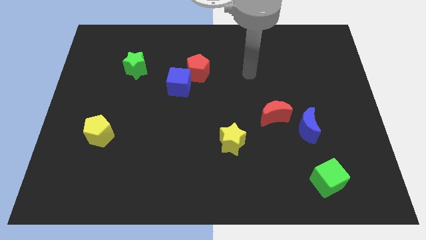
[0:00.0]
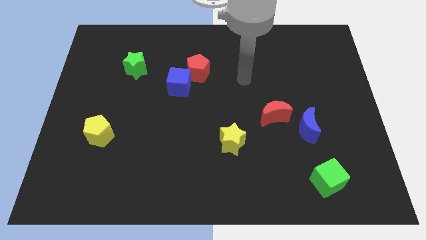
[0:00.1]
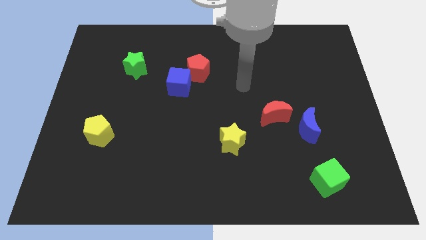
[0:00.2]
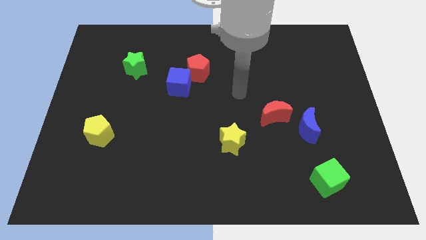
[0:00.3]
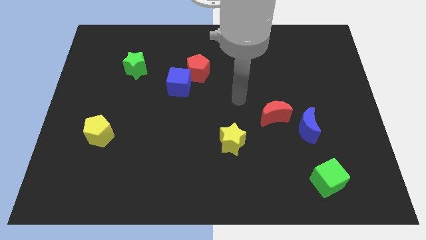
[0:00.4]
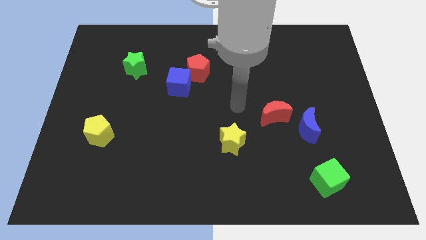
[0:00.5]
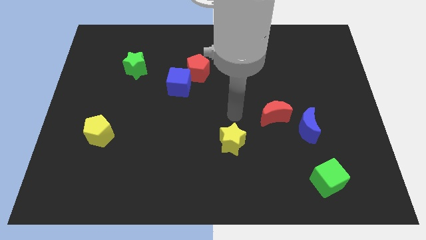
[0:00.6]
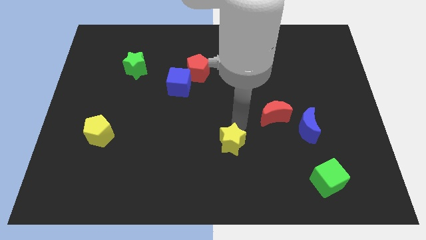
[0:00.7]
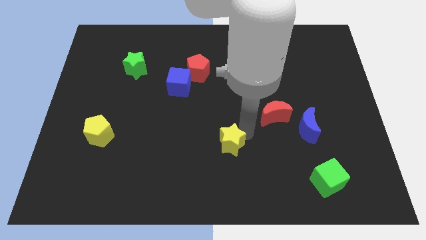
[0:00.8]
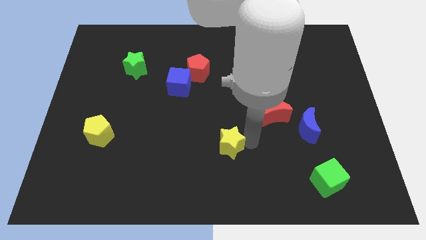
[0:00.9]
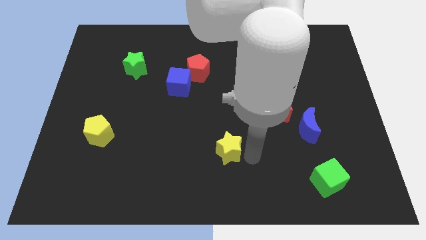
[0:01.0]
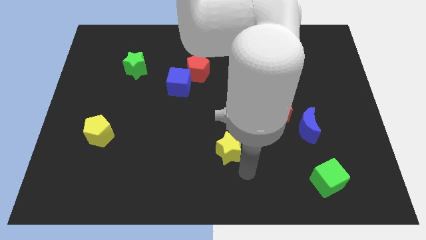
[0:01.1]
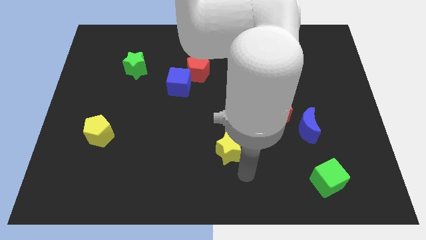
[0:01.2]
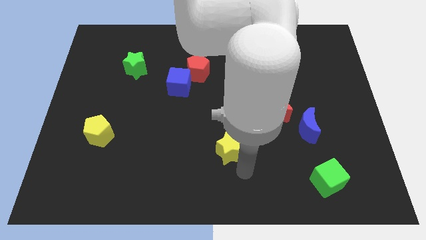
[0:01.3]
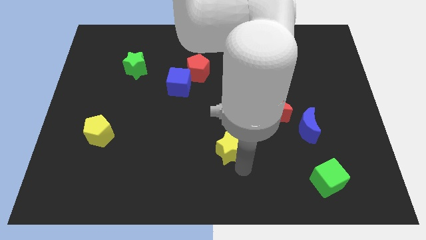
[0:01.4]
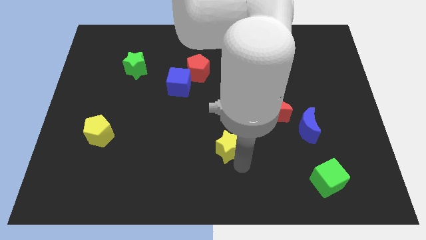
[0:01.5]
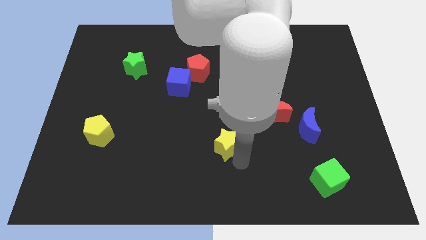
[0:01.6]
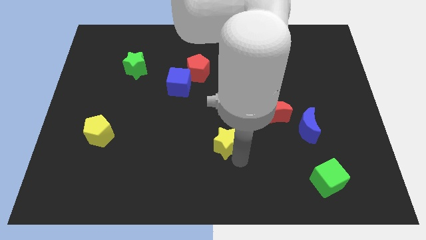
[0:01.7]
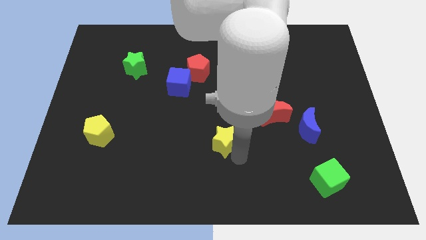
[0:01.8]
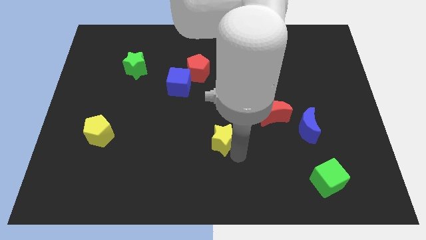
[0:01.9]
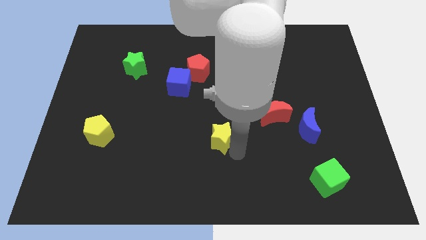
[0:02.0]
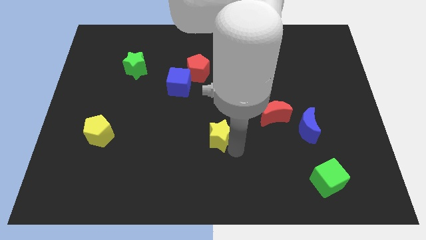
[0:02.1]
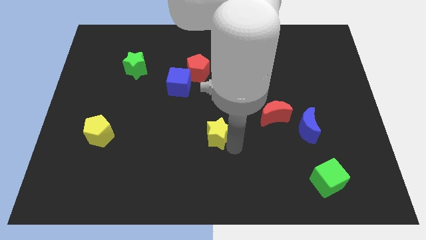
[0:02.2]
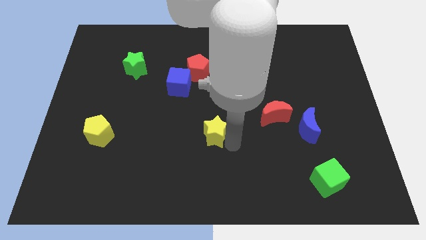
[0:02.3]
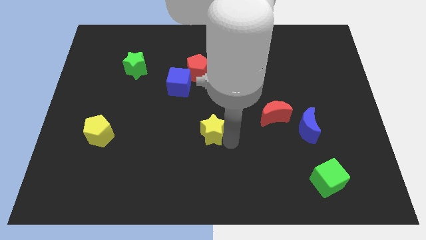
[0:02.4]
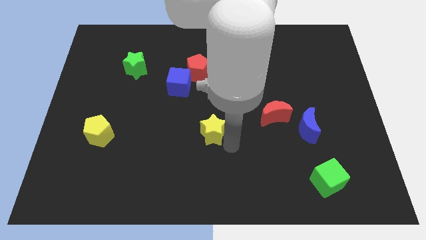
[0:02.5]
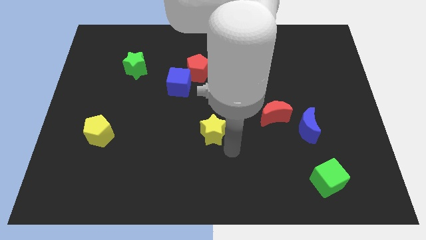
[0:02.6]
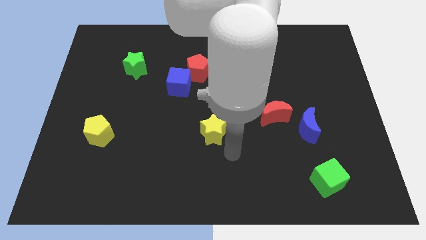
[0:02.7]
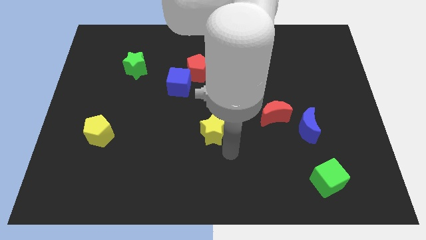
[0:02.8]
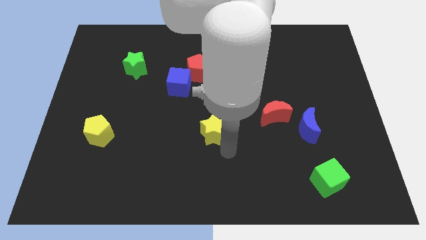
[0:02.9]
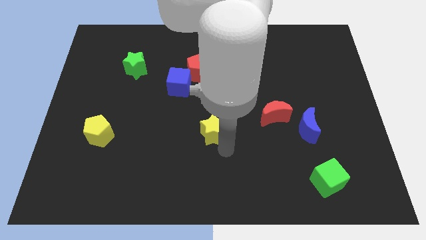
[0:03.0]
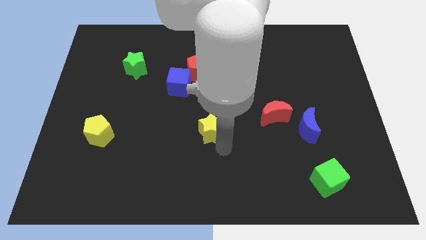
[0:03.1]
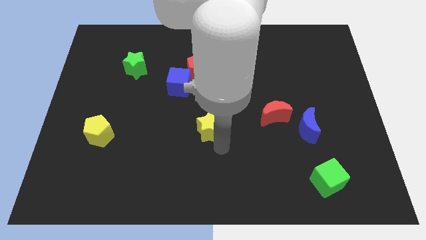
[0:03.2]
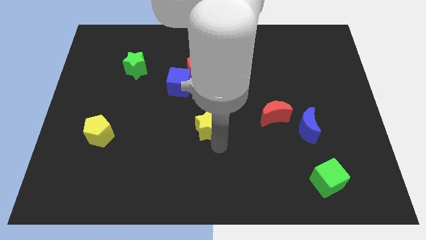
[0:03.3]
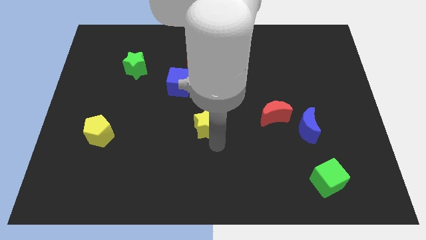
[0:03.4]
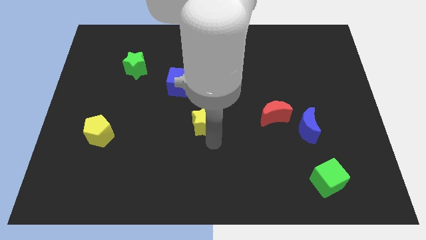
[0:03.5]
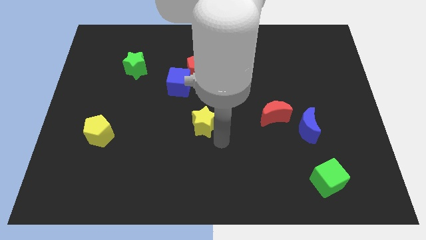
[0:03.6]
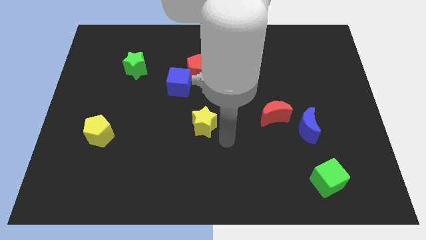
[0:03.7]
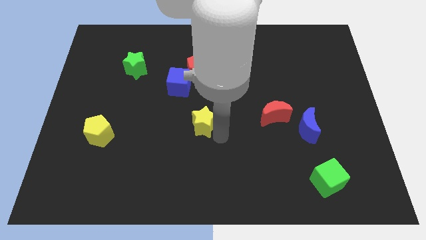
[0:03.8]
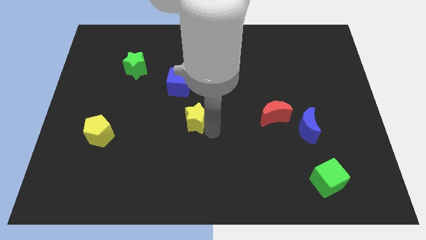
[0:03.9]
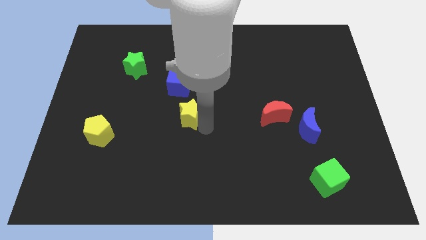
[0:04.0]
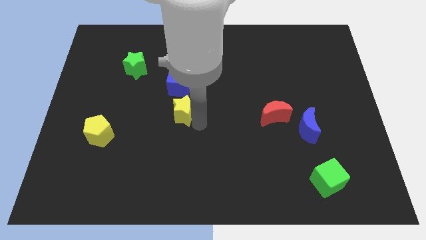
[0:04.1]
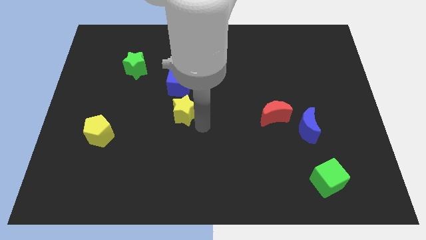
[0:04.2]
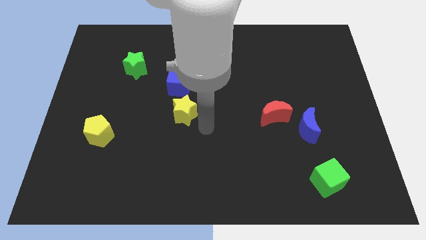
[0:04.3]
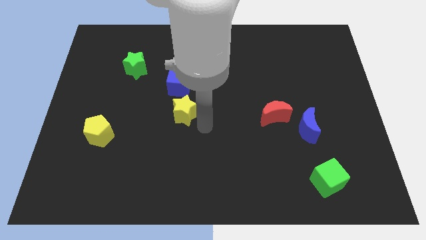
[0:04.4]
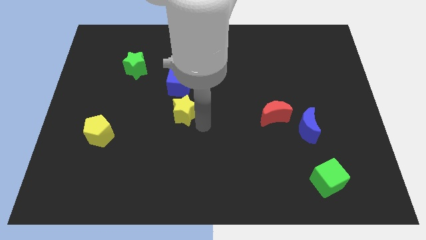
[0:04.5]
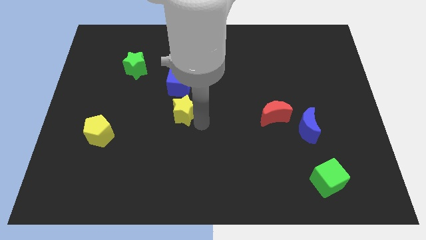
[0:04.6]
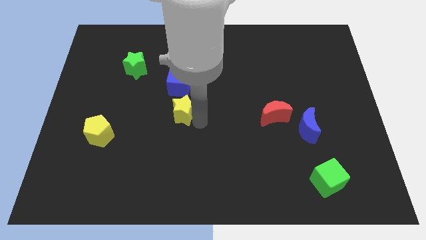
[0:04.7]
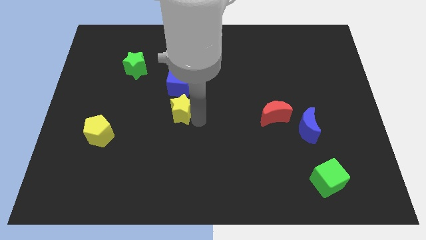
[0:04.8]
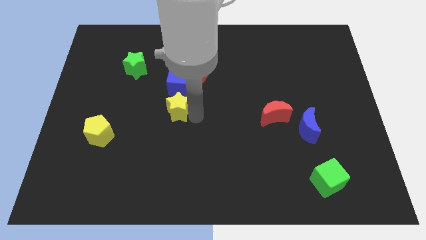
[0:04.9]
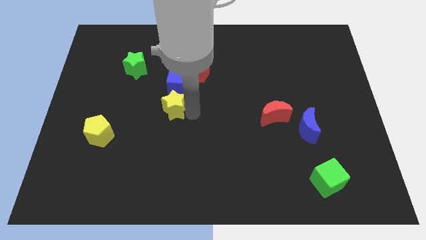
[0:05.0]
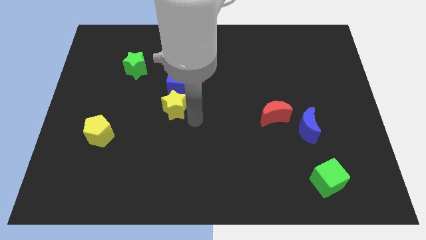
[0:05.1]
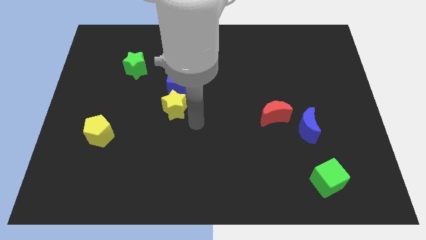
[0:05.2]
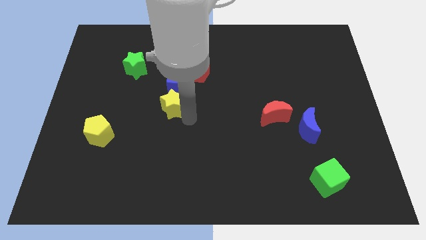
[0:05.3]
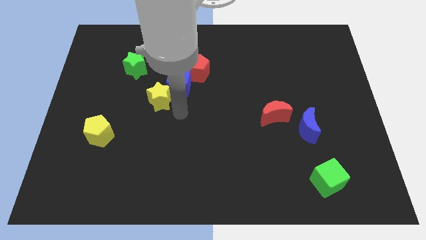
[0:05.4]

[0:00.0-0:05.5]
move the yellow star to the left of the blue cube

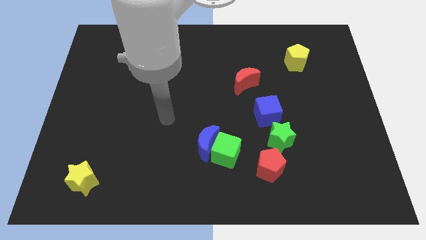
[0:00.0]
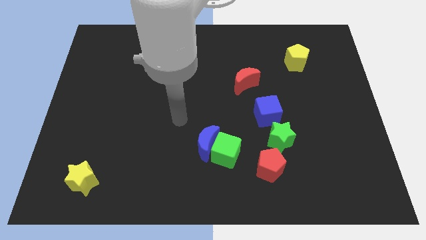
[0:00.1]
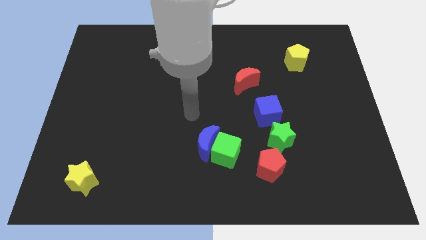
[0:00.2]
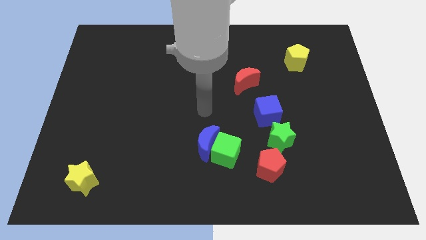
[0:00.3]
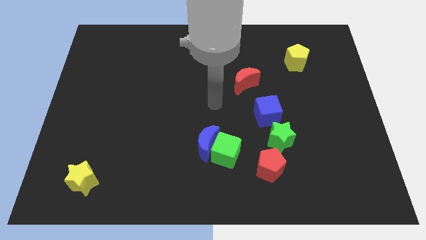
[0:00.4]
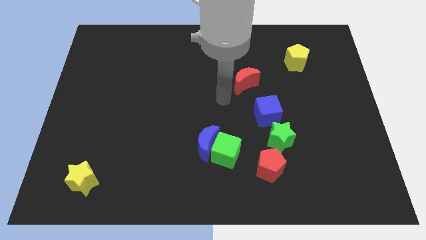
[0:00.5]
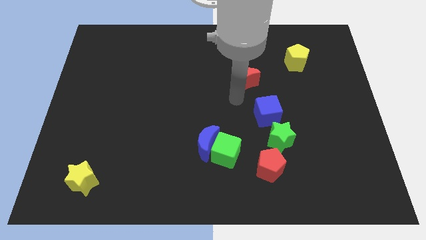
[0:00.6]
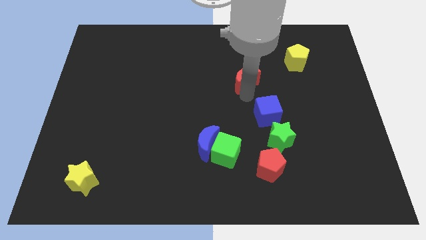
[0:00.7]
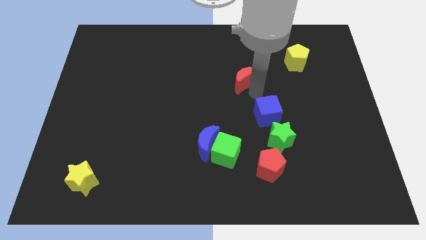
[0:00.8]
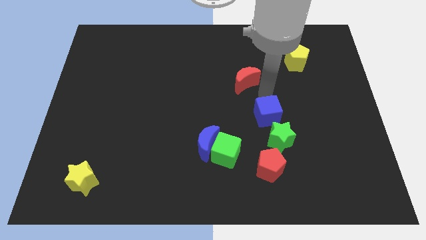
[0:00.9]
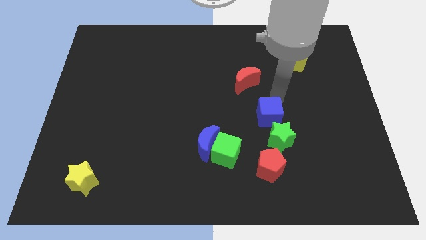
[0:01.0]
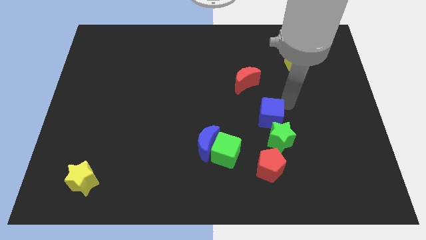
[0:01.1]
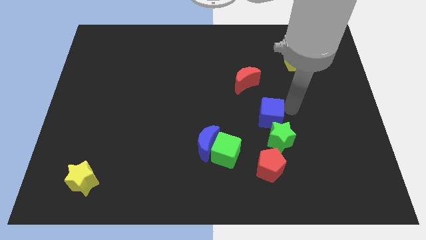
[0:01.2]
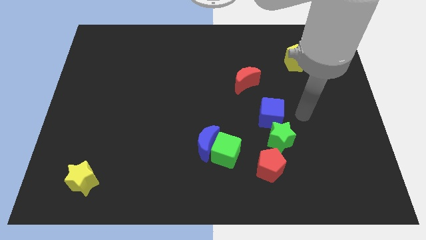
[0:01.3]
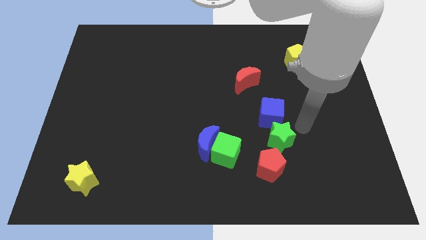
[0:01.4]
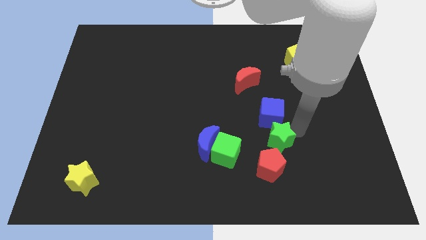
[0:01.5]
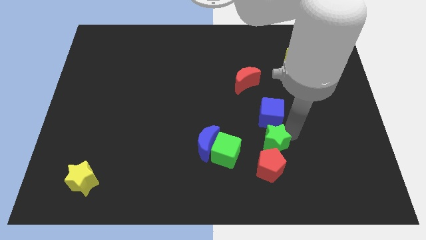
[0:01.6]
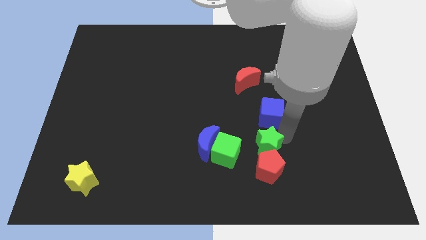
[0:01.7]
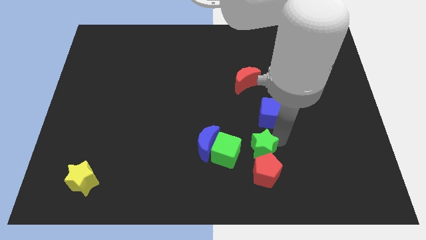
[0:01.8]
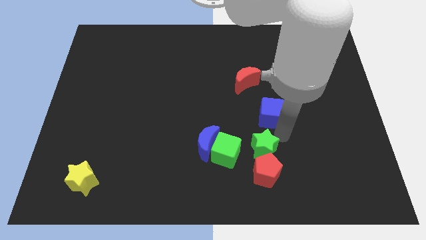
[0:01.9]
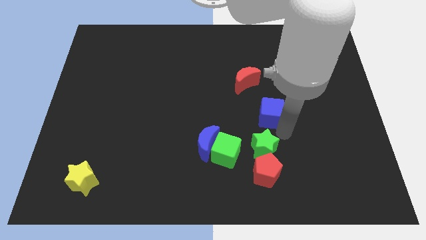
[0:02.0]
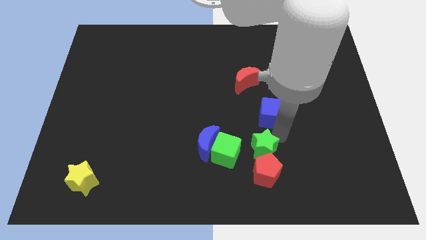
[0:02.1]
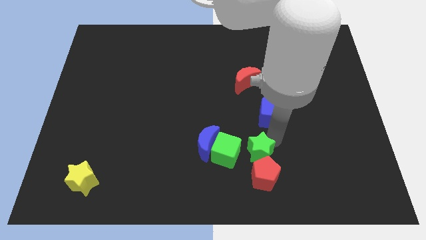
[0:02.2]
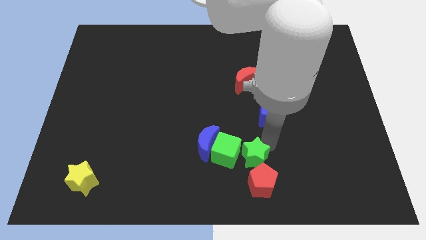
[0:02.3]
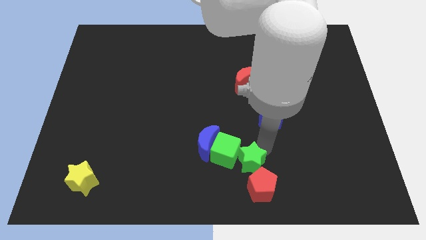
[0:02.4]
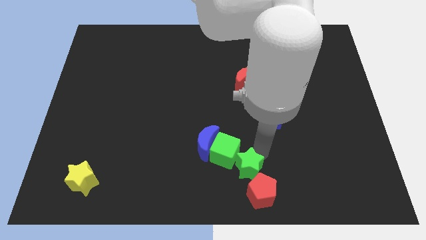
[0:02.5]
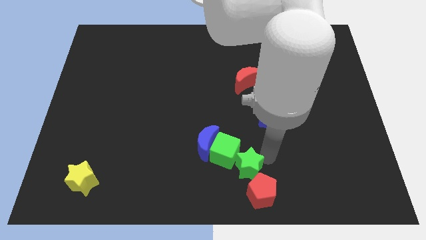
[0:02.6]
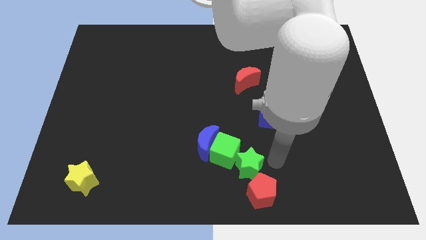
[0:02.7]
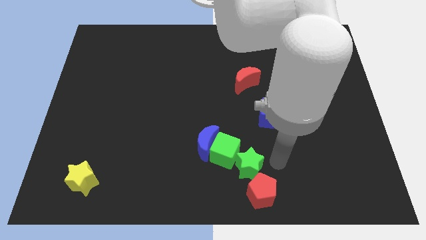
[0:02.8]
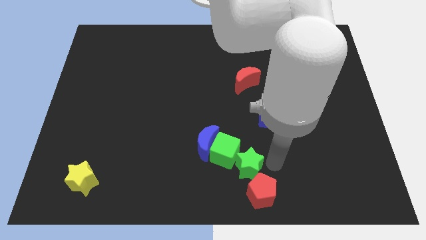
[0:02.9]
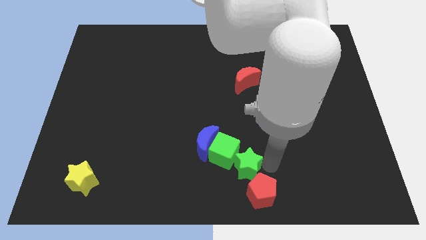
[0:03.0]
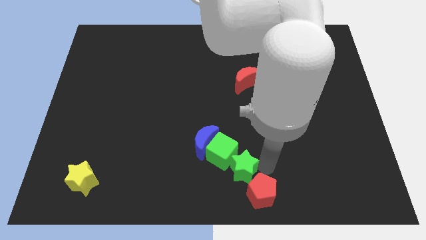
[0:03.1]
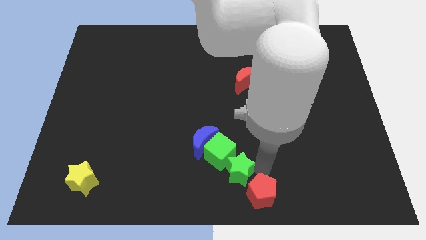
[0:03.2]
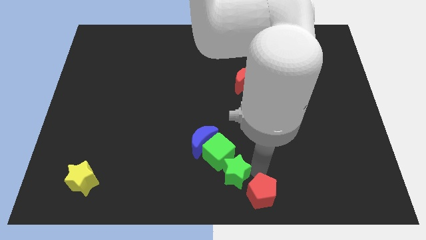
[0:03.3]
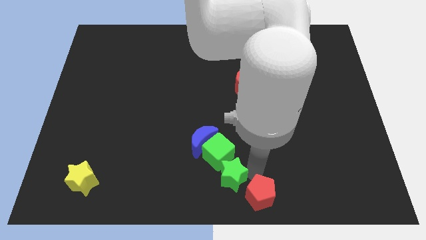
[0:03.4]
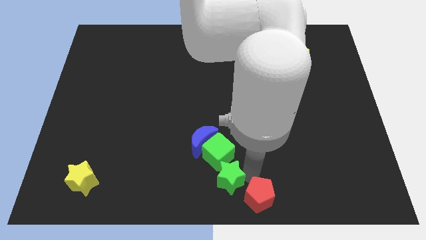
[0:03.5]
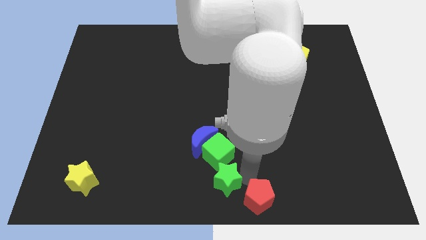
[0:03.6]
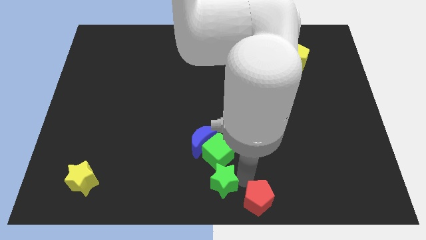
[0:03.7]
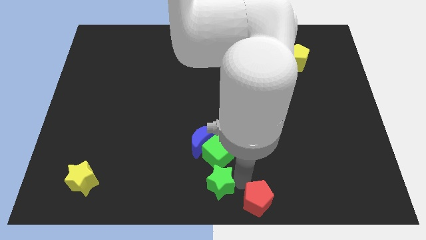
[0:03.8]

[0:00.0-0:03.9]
push the green star to the bottom left side of the green cube
